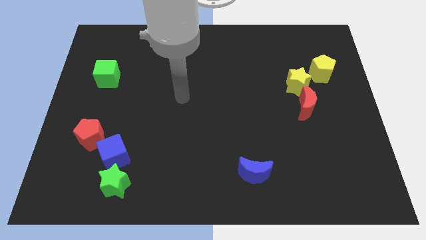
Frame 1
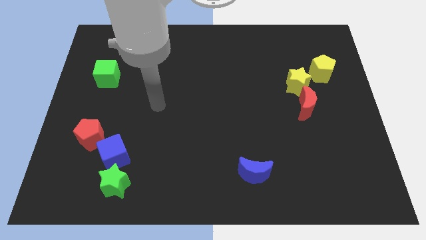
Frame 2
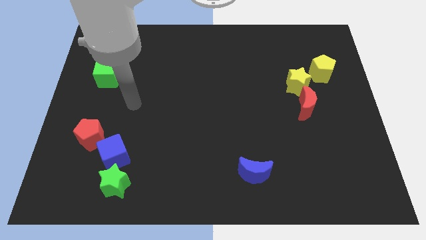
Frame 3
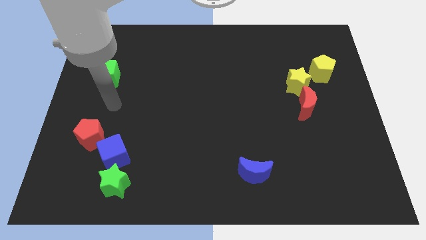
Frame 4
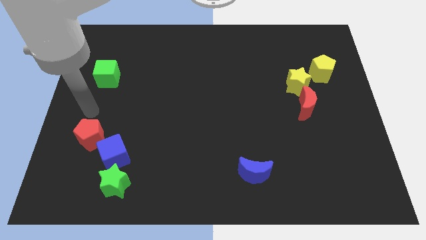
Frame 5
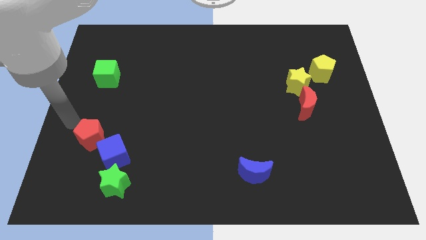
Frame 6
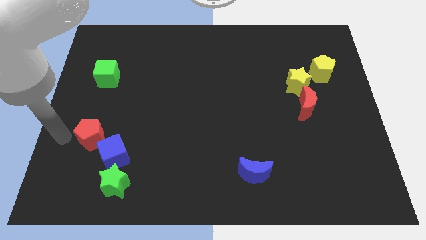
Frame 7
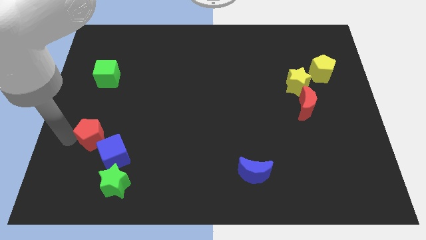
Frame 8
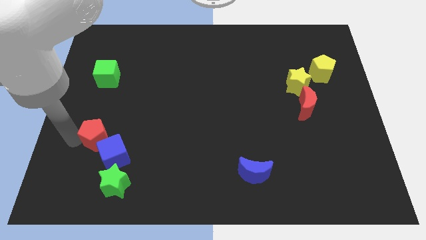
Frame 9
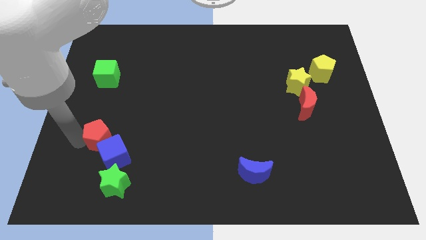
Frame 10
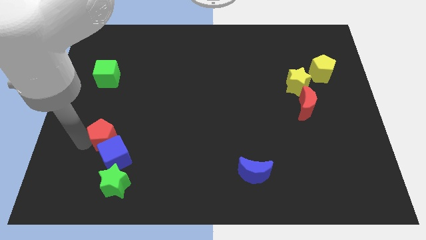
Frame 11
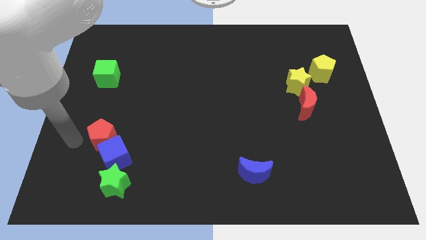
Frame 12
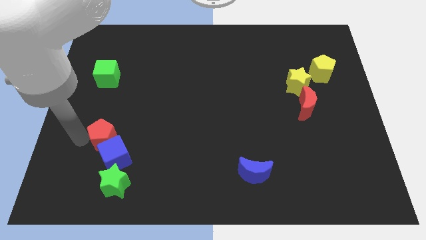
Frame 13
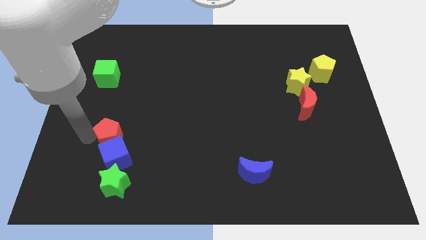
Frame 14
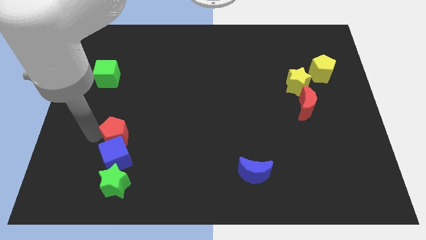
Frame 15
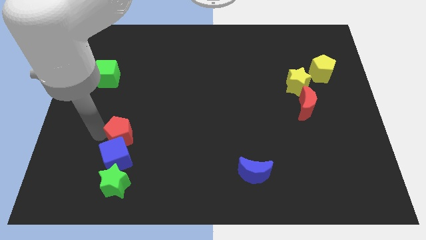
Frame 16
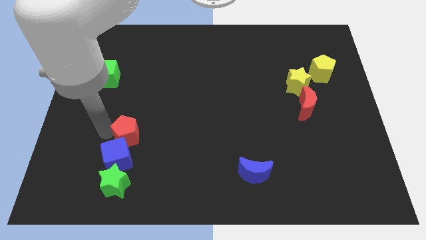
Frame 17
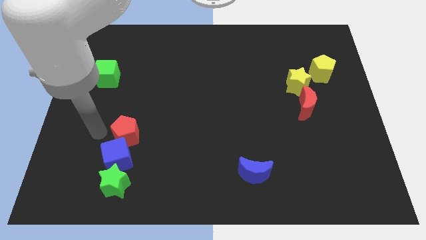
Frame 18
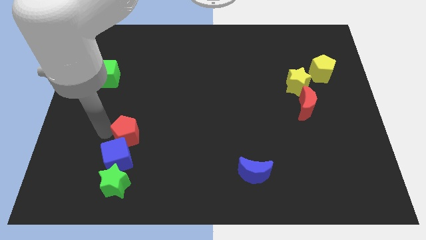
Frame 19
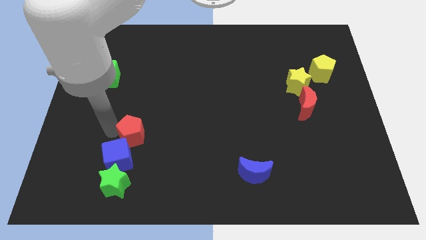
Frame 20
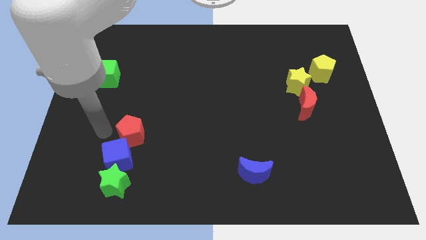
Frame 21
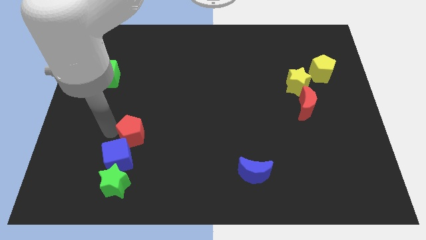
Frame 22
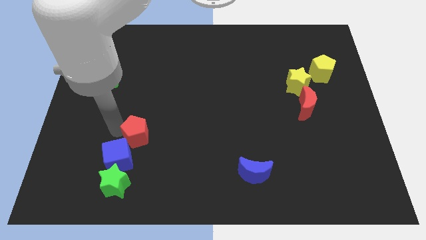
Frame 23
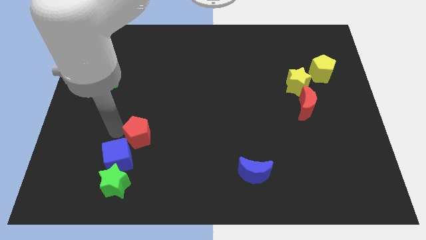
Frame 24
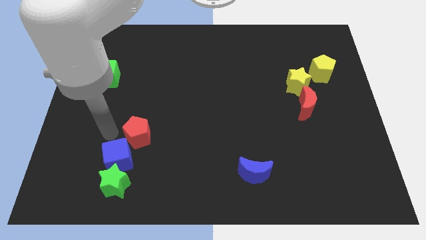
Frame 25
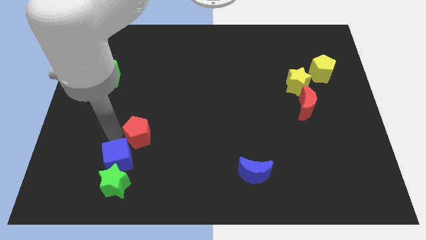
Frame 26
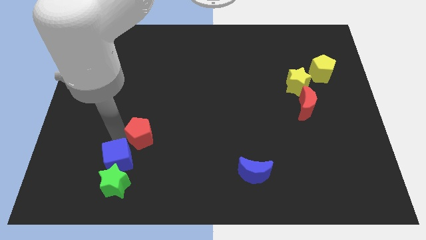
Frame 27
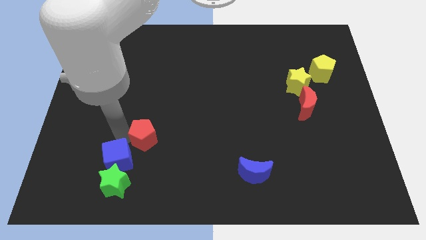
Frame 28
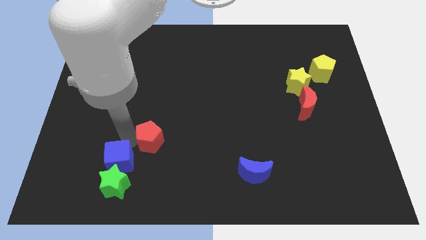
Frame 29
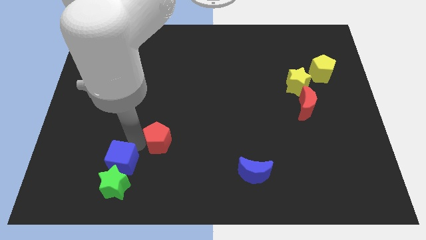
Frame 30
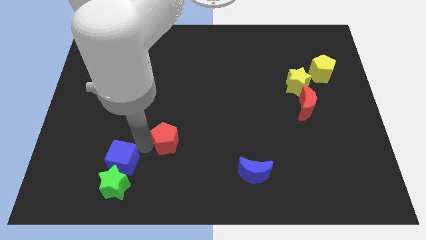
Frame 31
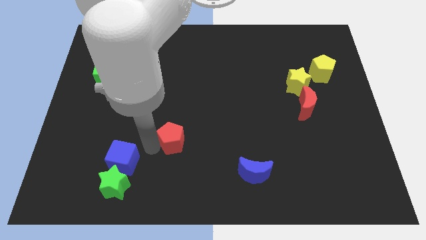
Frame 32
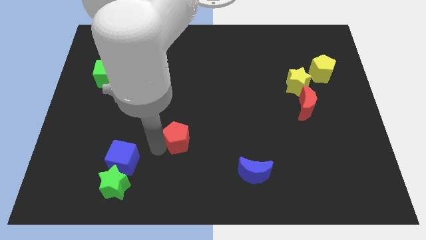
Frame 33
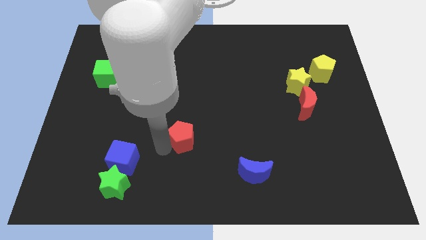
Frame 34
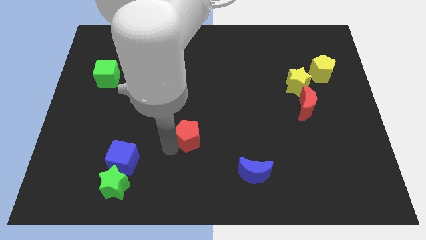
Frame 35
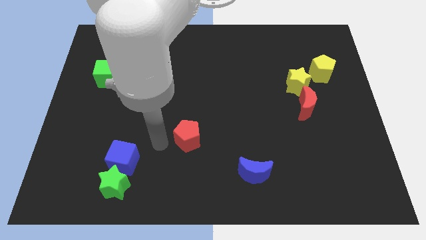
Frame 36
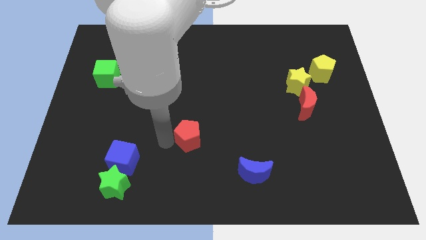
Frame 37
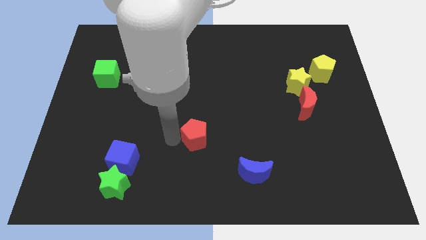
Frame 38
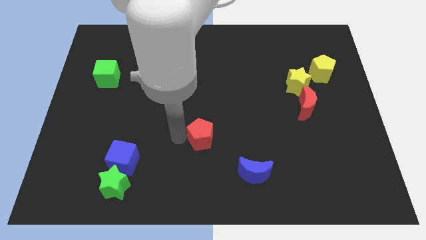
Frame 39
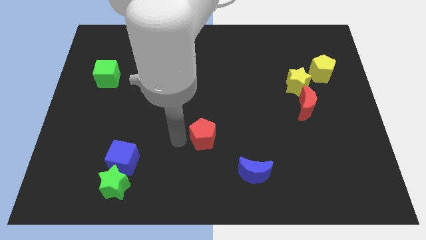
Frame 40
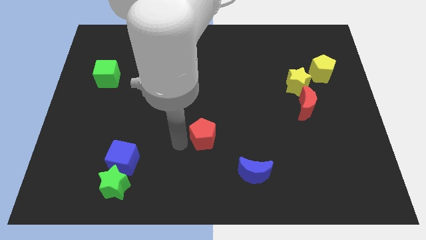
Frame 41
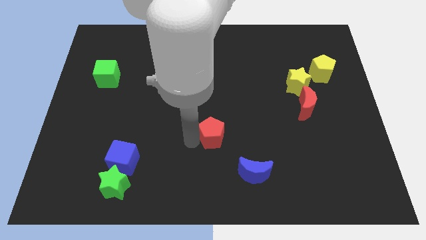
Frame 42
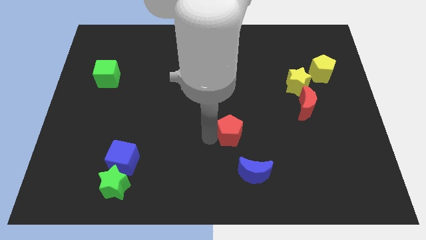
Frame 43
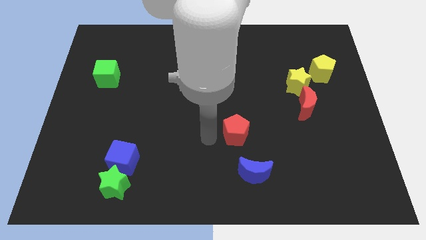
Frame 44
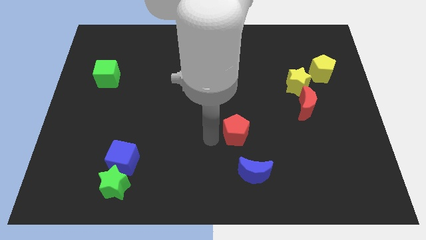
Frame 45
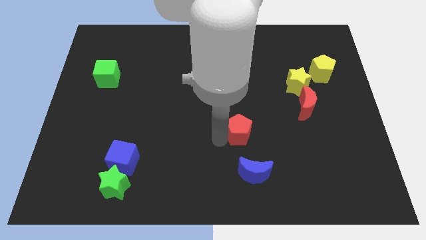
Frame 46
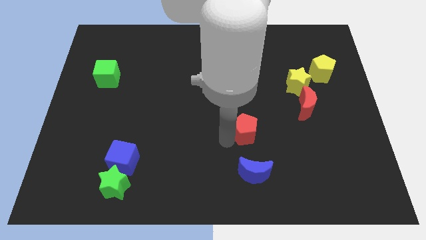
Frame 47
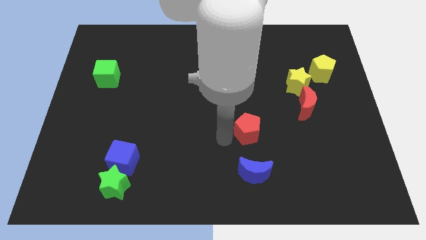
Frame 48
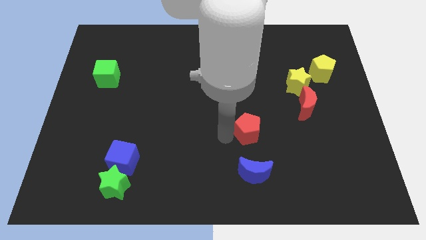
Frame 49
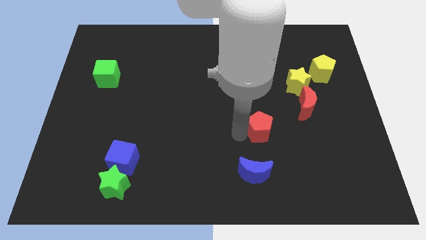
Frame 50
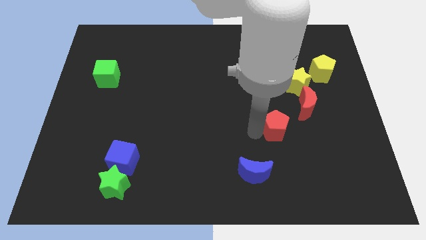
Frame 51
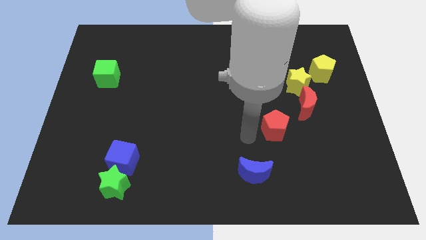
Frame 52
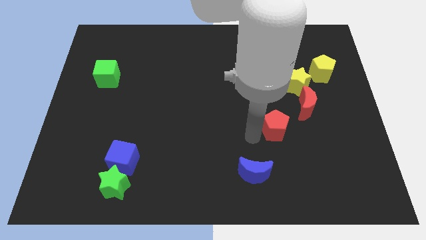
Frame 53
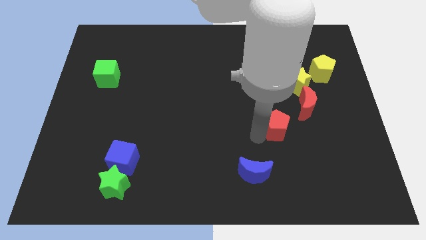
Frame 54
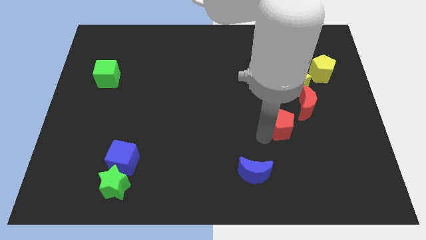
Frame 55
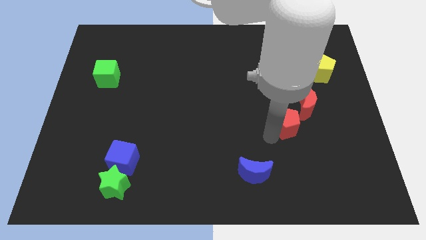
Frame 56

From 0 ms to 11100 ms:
push the red pentagon to the bottom of the yellow star

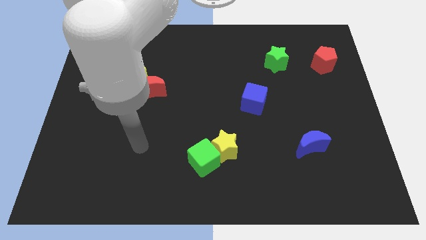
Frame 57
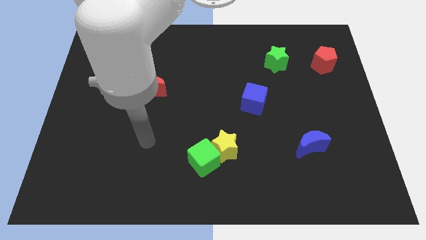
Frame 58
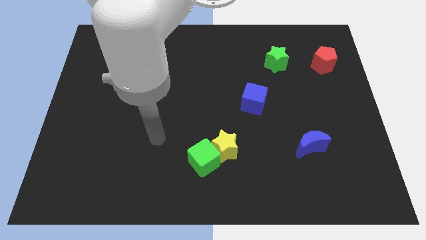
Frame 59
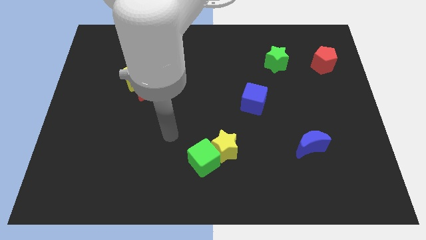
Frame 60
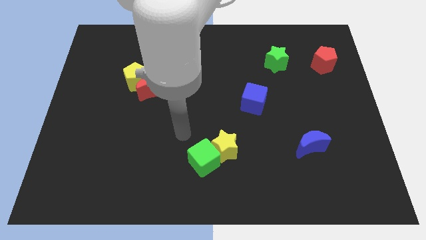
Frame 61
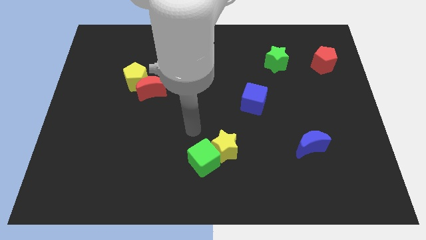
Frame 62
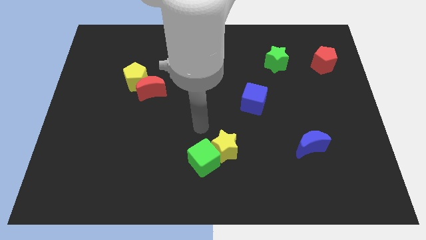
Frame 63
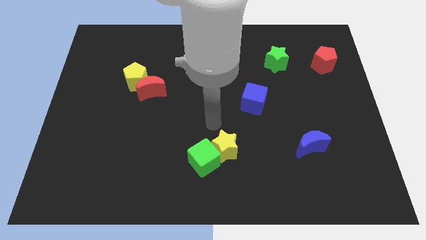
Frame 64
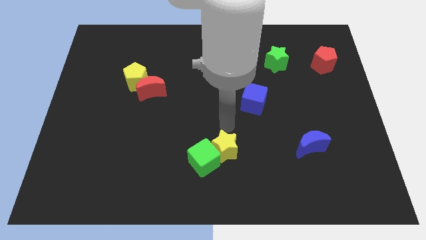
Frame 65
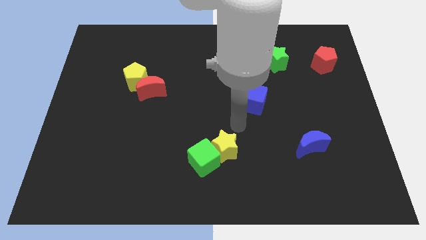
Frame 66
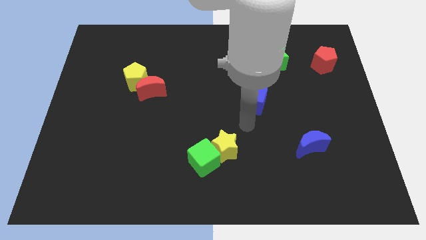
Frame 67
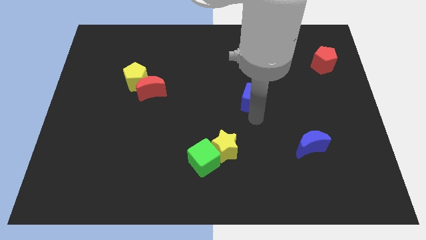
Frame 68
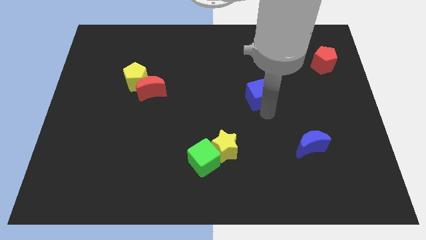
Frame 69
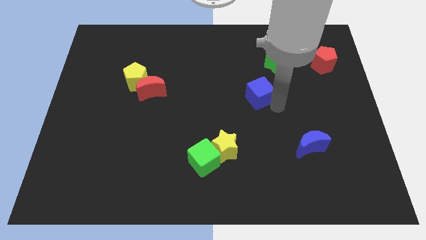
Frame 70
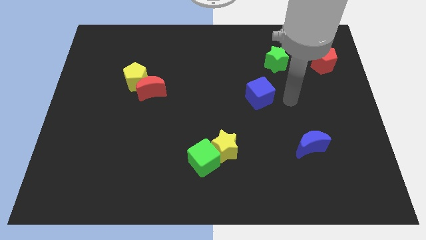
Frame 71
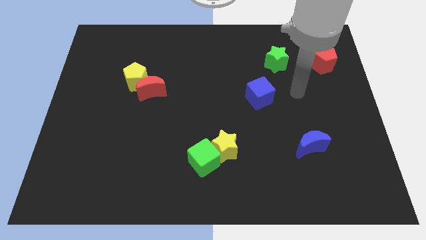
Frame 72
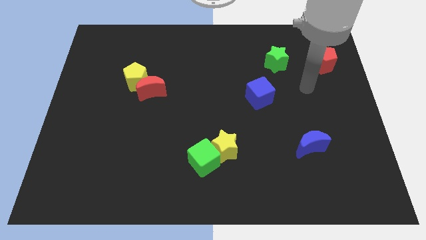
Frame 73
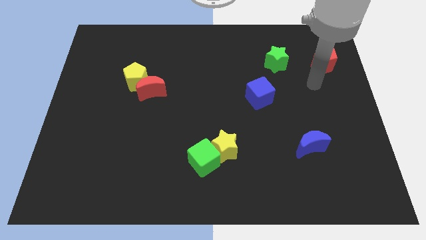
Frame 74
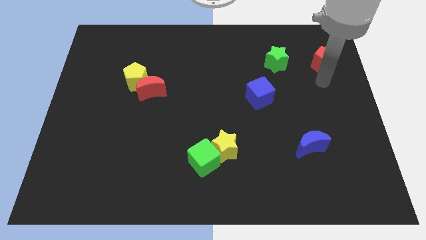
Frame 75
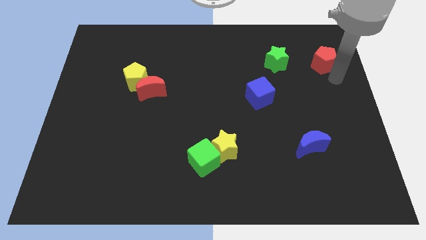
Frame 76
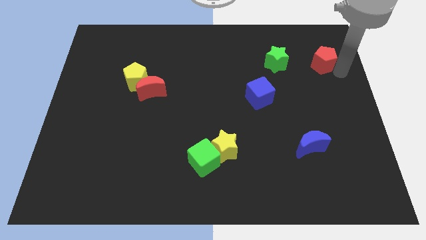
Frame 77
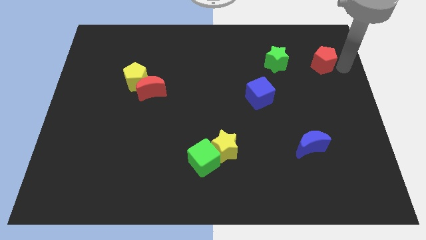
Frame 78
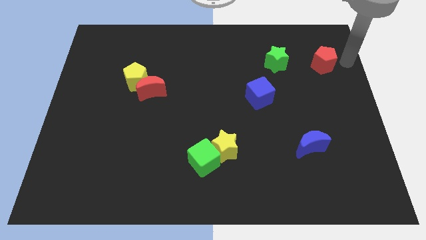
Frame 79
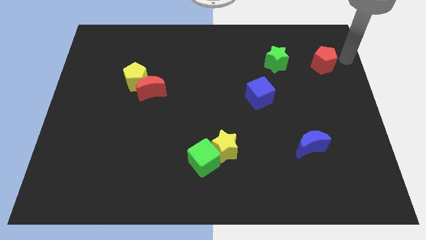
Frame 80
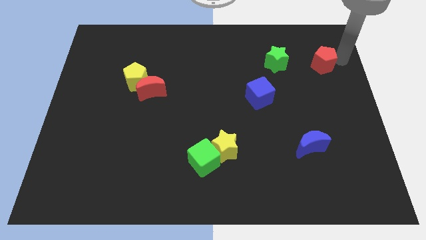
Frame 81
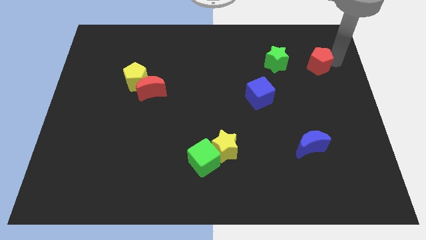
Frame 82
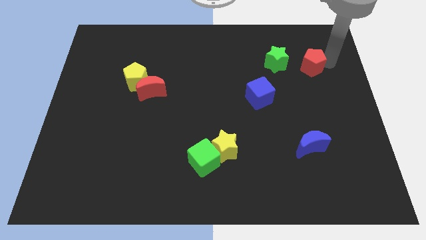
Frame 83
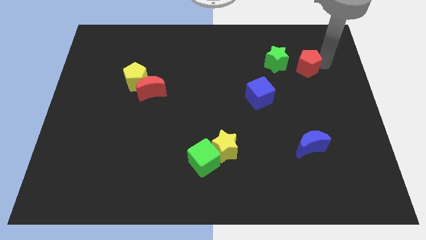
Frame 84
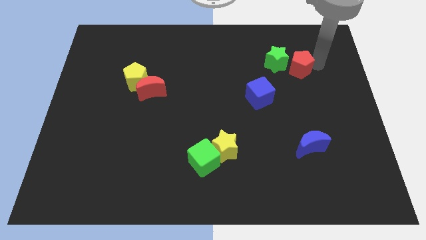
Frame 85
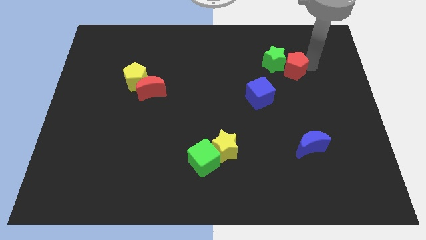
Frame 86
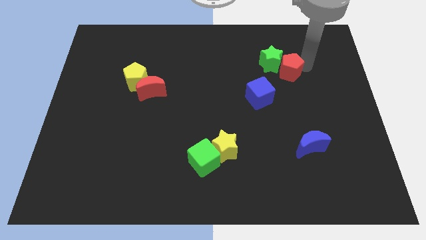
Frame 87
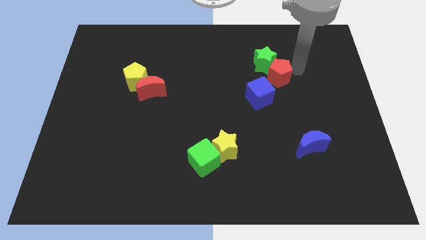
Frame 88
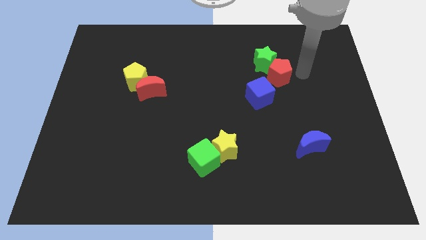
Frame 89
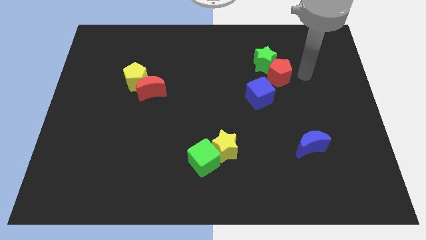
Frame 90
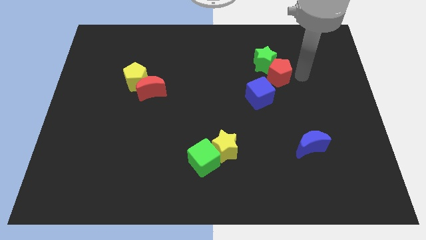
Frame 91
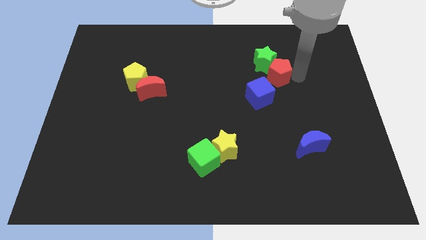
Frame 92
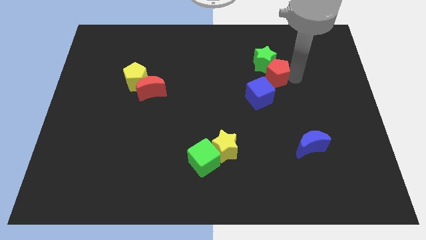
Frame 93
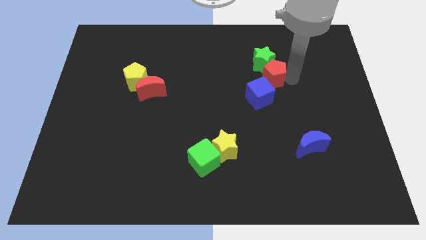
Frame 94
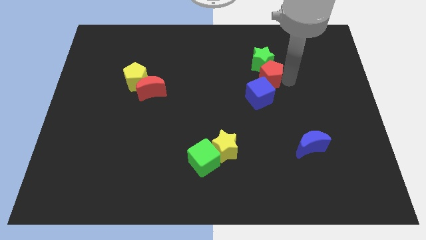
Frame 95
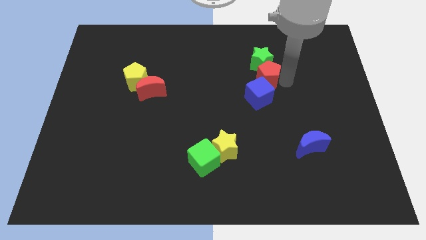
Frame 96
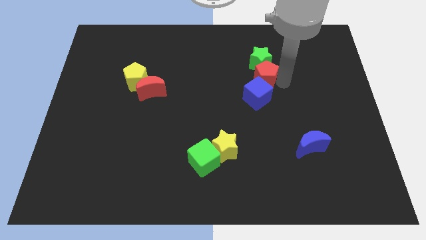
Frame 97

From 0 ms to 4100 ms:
move the red pentagon diagonally down and to the left of the green star
